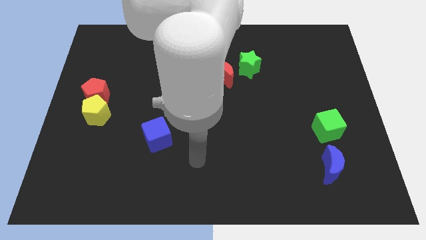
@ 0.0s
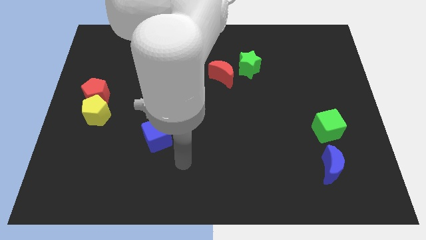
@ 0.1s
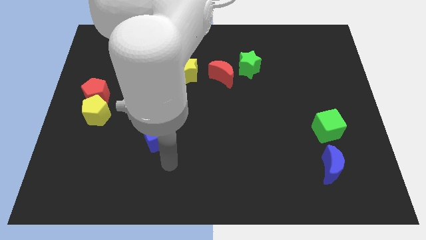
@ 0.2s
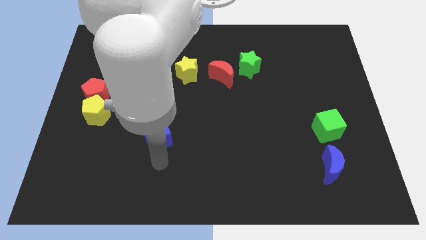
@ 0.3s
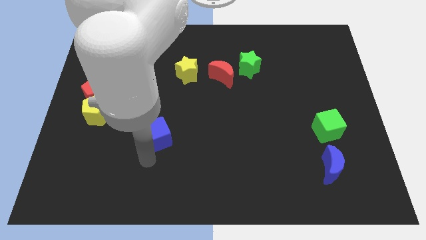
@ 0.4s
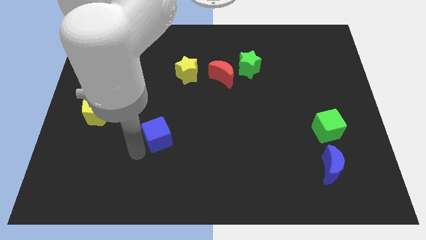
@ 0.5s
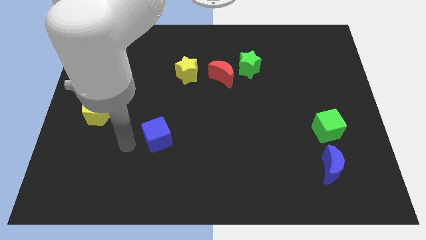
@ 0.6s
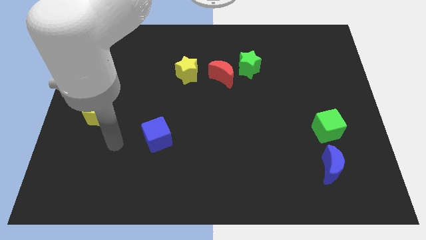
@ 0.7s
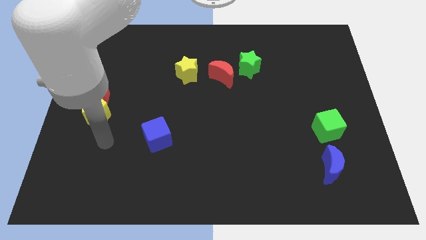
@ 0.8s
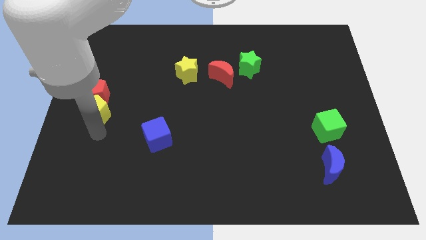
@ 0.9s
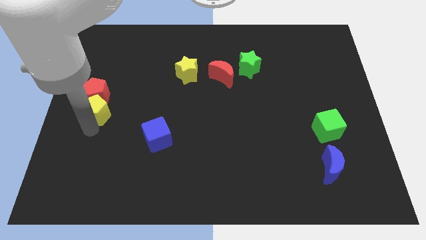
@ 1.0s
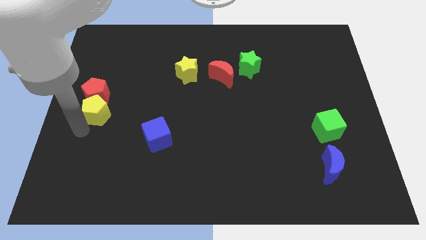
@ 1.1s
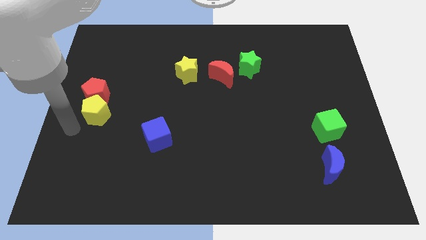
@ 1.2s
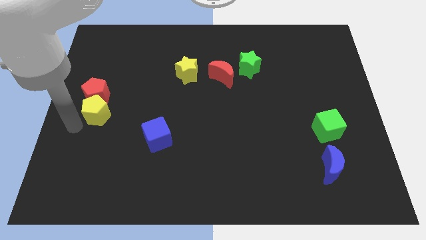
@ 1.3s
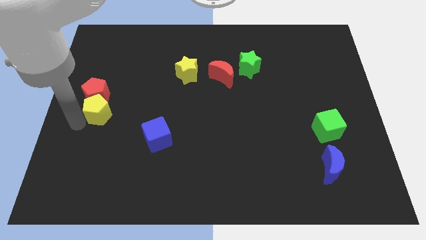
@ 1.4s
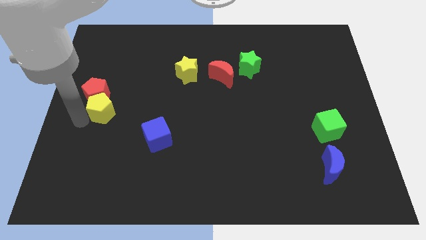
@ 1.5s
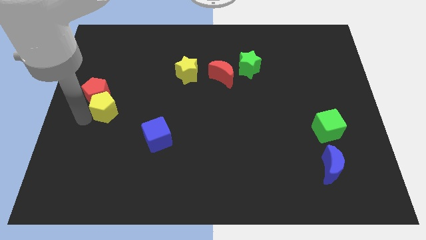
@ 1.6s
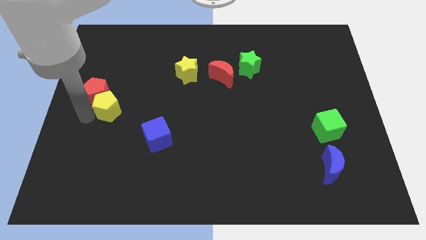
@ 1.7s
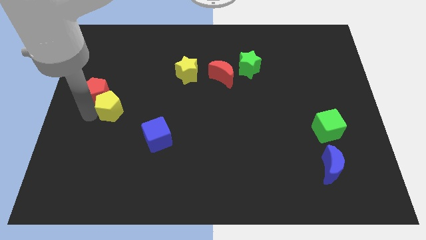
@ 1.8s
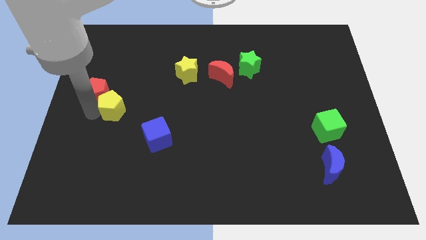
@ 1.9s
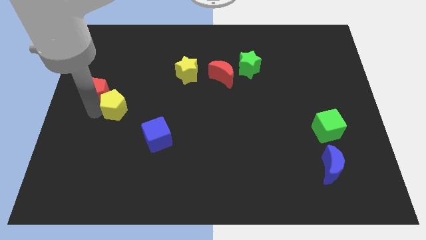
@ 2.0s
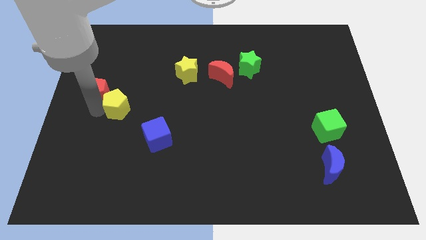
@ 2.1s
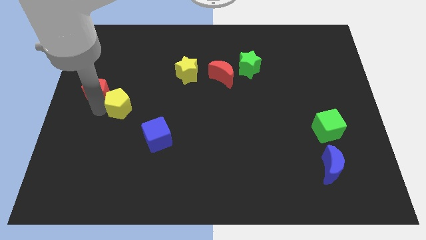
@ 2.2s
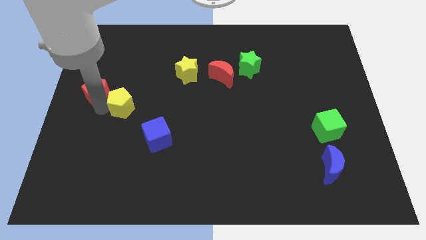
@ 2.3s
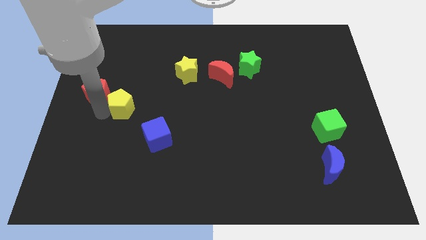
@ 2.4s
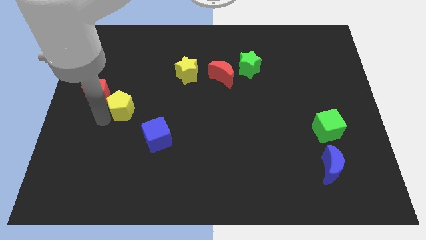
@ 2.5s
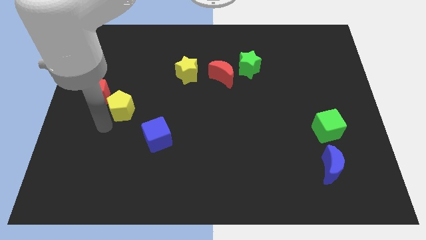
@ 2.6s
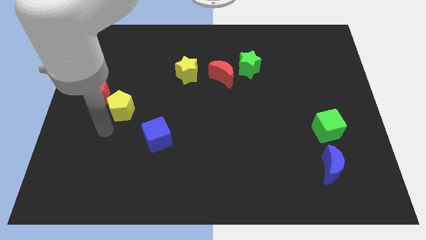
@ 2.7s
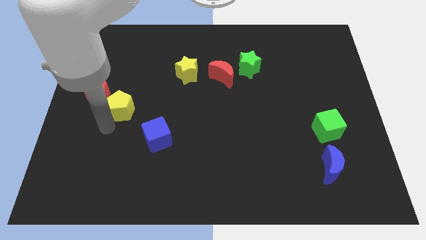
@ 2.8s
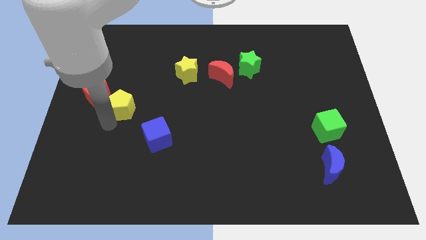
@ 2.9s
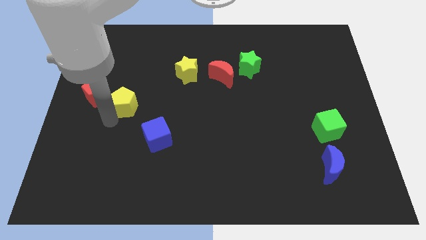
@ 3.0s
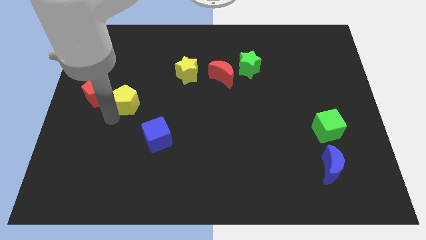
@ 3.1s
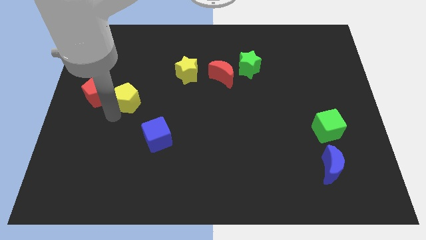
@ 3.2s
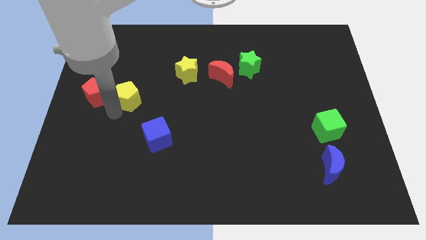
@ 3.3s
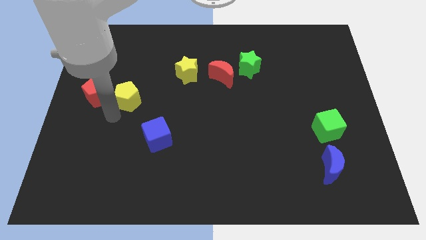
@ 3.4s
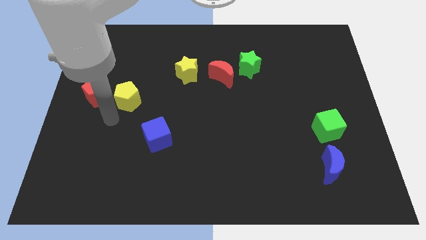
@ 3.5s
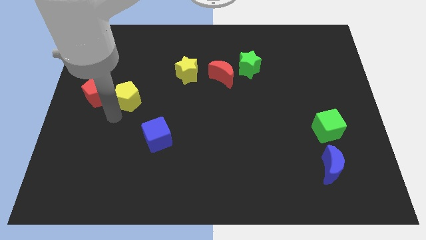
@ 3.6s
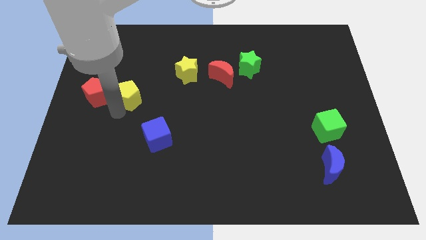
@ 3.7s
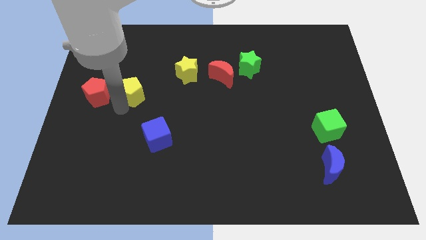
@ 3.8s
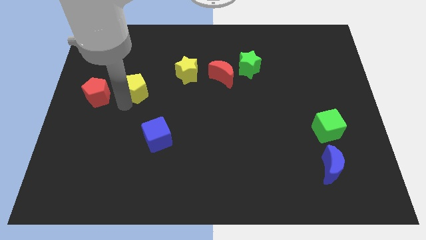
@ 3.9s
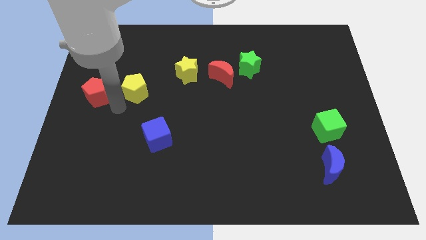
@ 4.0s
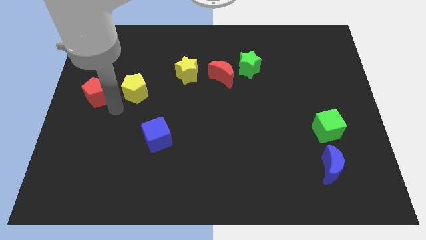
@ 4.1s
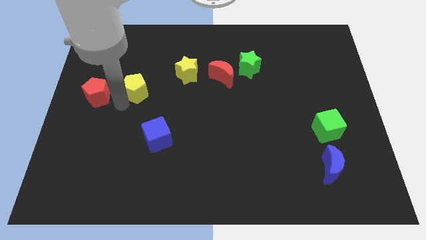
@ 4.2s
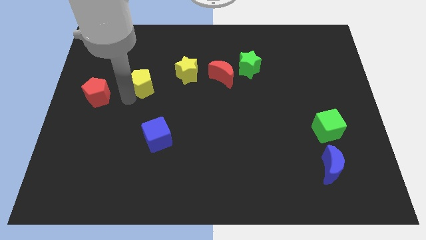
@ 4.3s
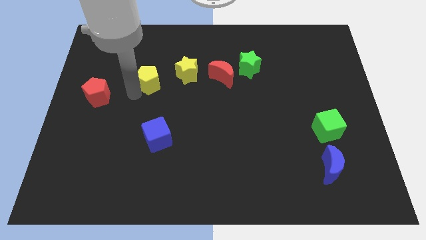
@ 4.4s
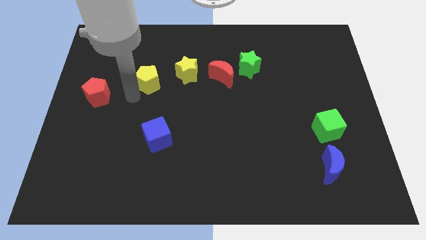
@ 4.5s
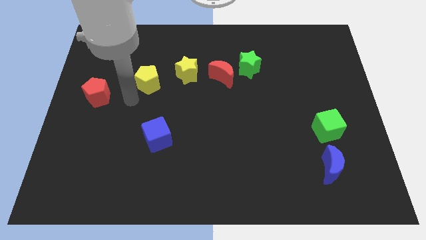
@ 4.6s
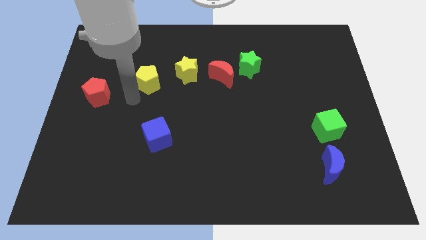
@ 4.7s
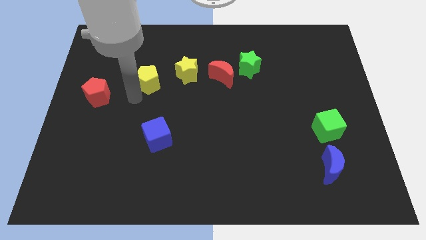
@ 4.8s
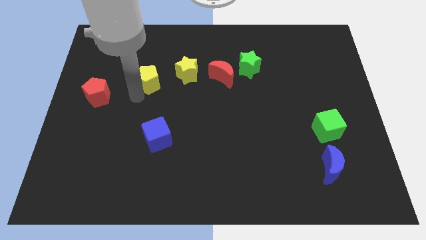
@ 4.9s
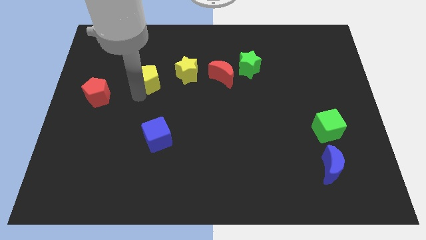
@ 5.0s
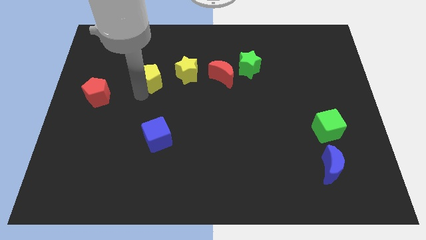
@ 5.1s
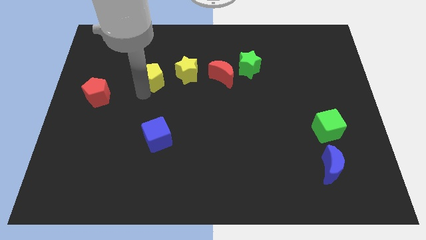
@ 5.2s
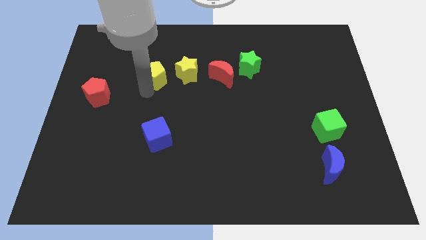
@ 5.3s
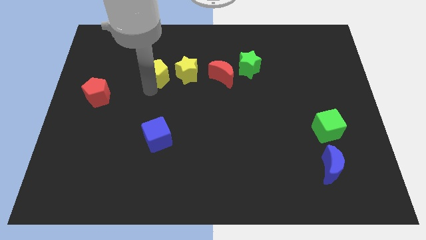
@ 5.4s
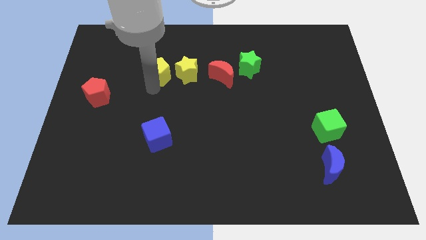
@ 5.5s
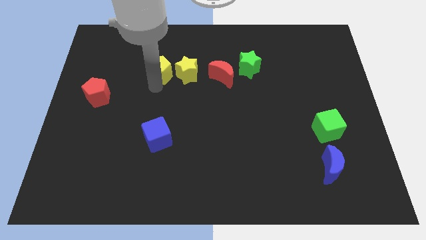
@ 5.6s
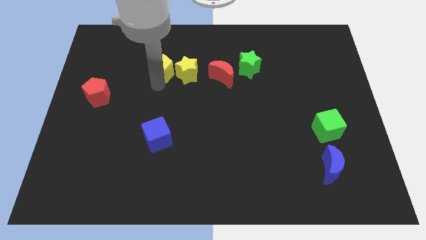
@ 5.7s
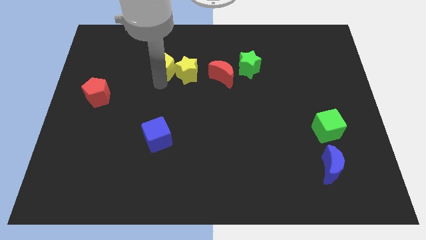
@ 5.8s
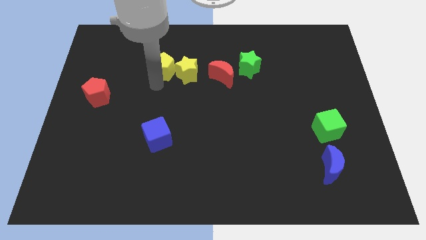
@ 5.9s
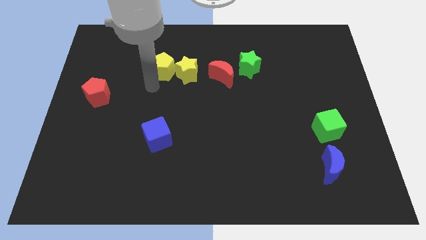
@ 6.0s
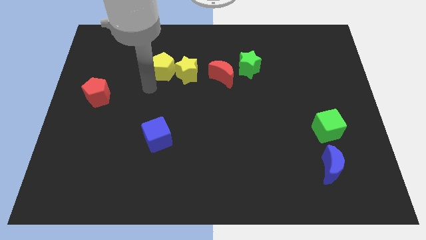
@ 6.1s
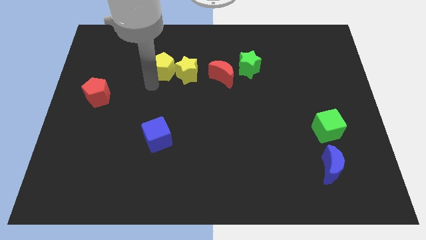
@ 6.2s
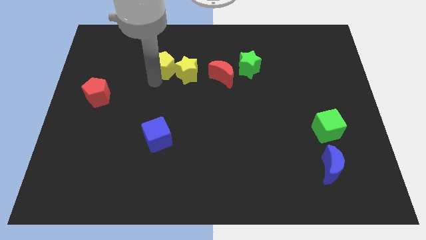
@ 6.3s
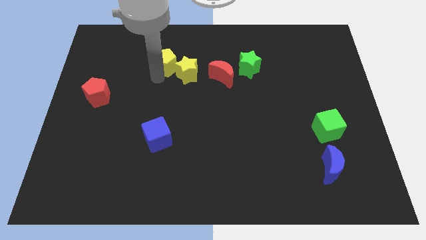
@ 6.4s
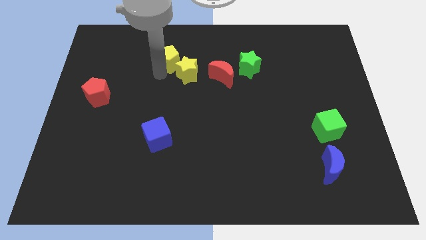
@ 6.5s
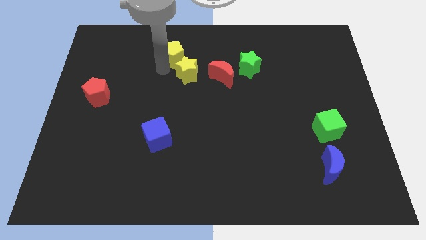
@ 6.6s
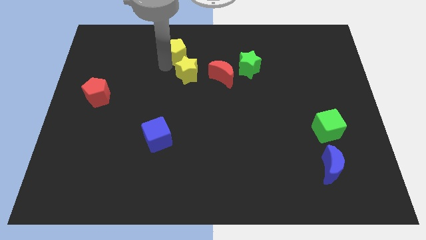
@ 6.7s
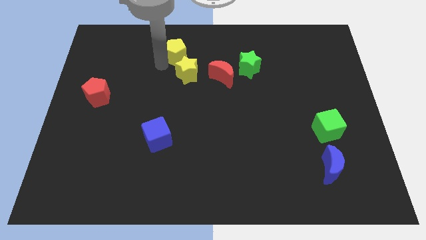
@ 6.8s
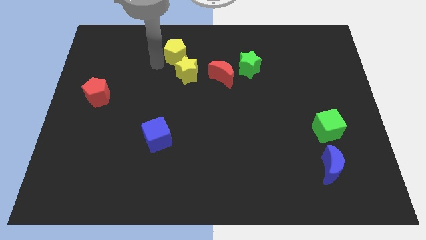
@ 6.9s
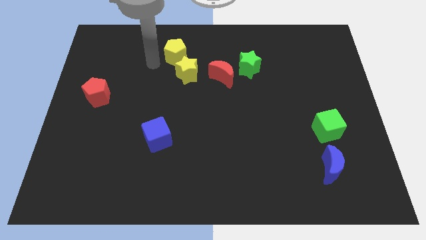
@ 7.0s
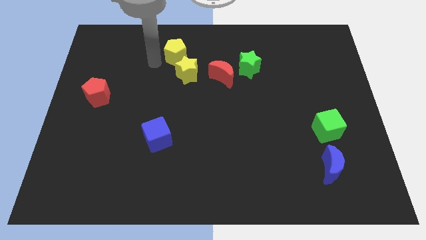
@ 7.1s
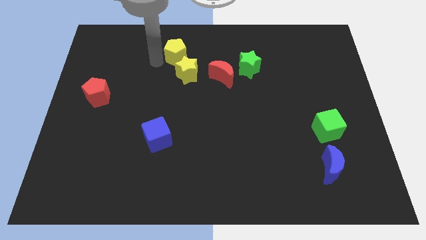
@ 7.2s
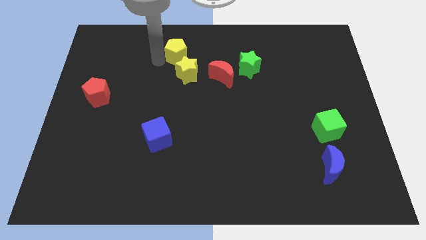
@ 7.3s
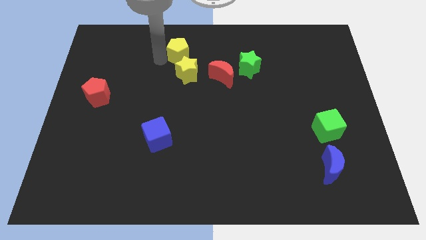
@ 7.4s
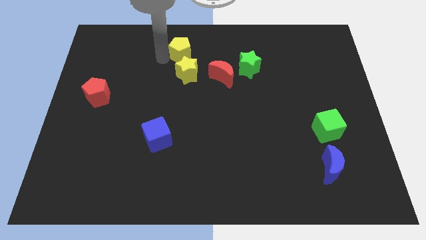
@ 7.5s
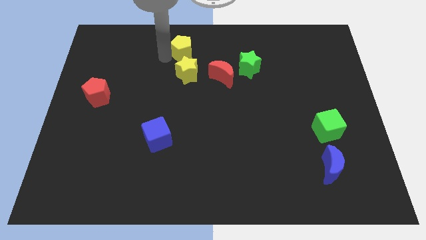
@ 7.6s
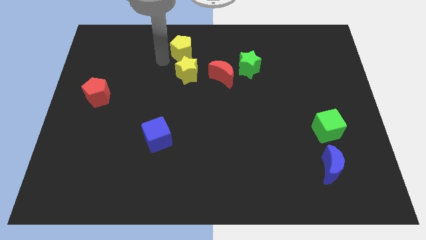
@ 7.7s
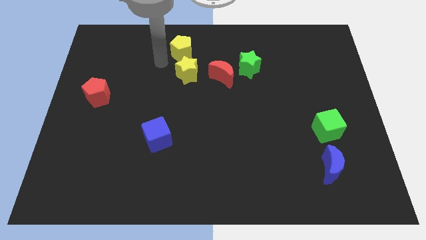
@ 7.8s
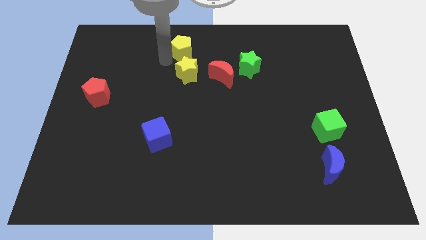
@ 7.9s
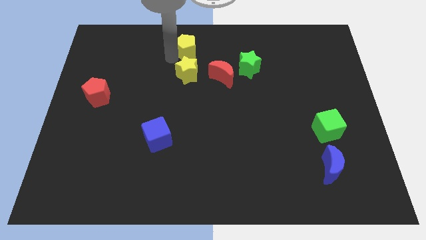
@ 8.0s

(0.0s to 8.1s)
slide the yellow pentagon to the top
